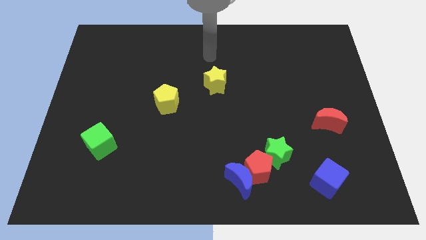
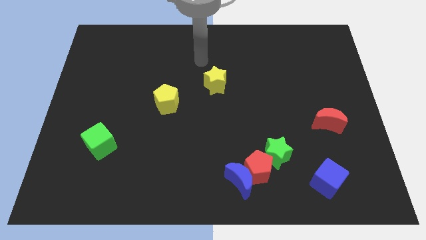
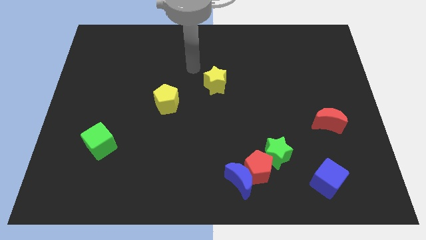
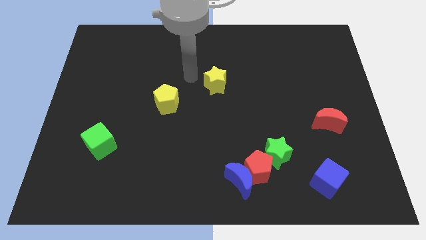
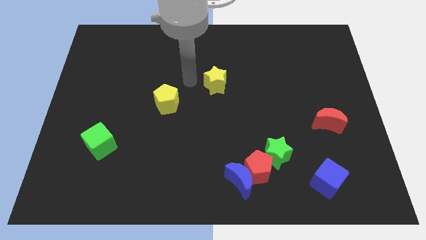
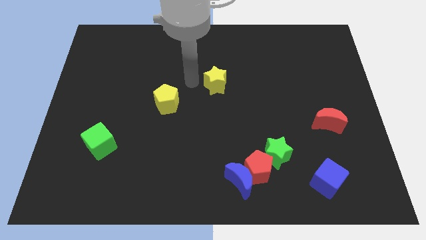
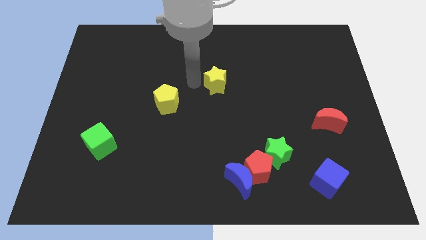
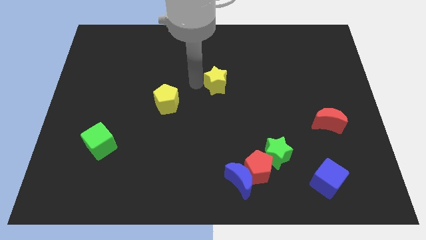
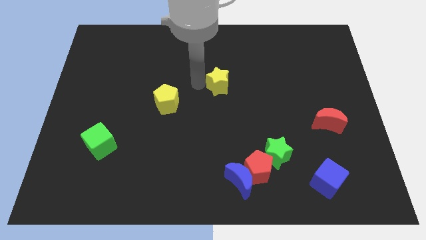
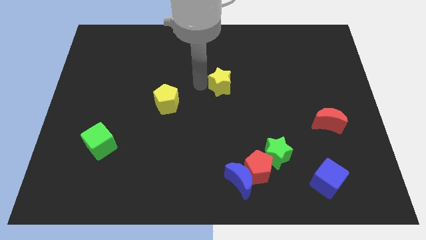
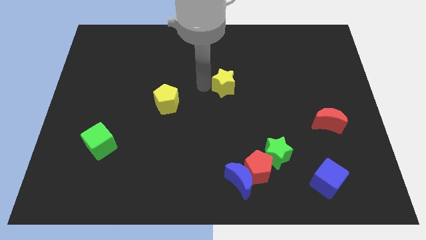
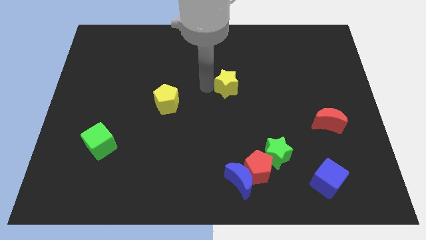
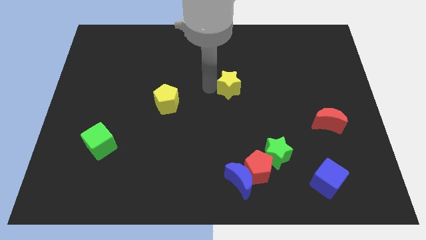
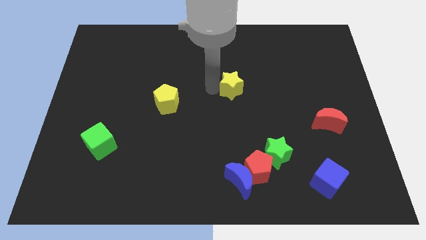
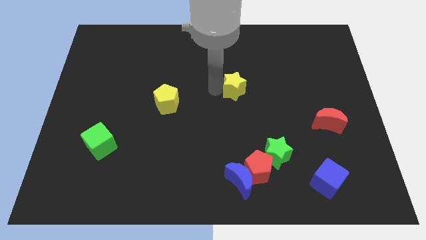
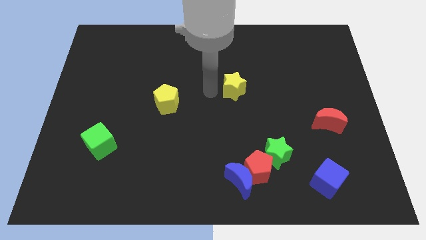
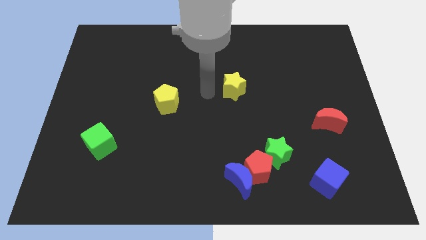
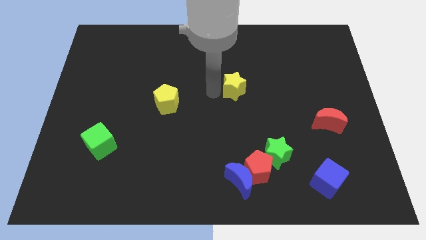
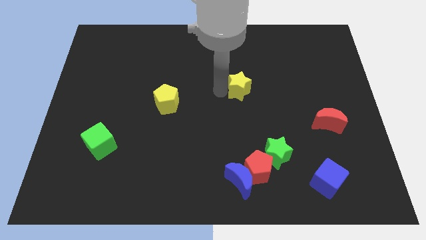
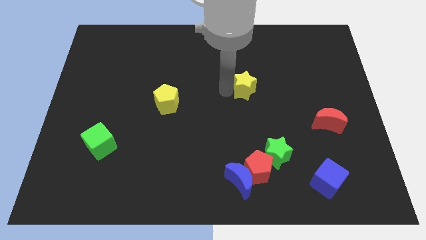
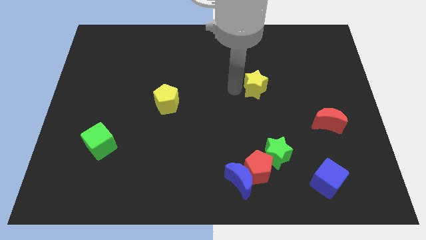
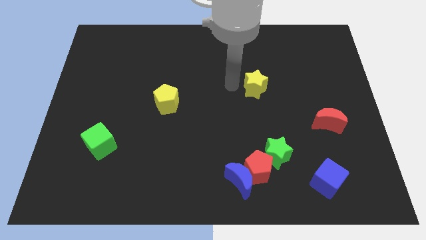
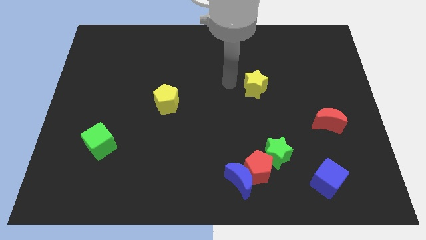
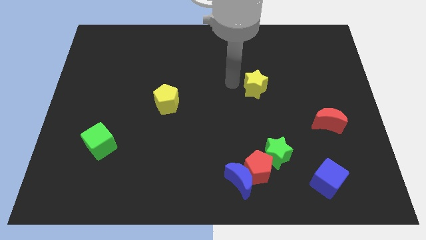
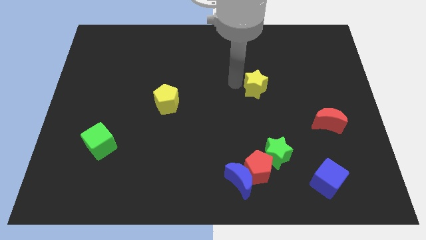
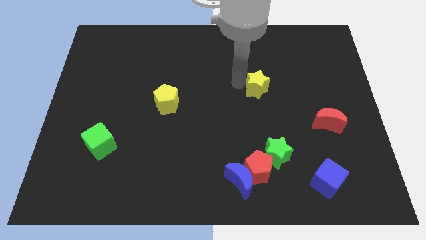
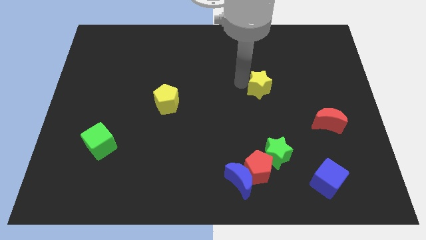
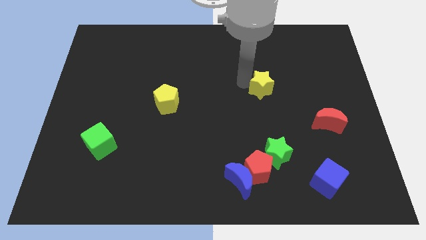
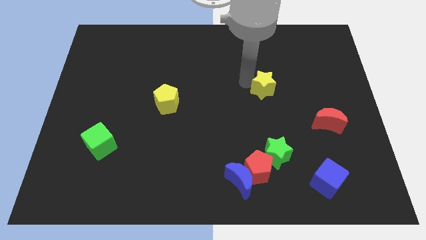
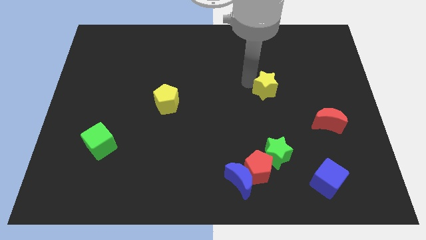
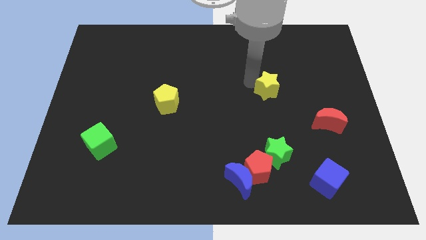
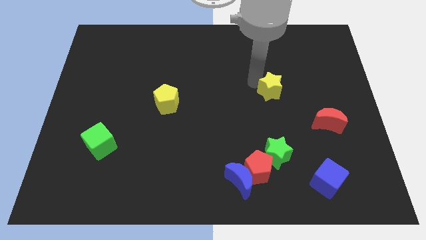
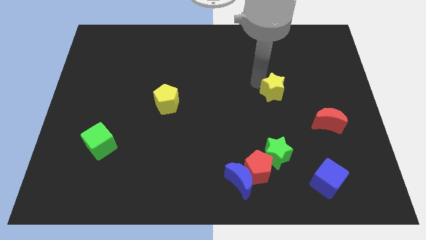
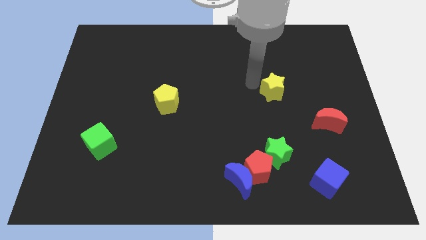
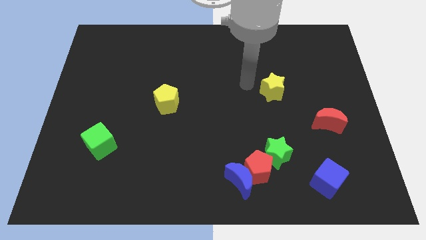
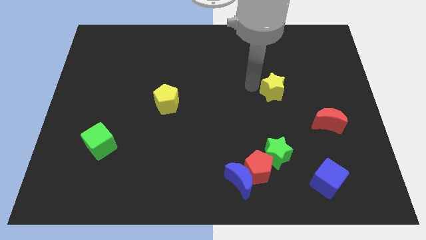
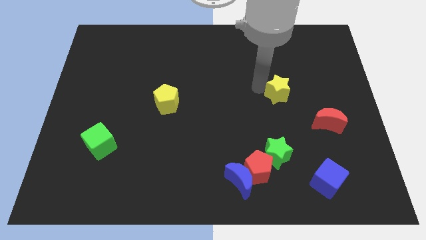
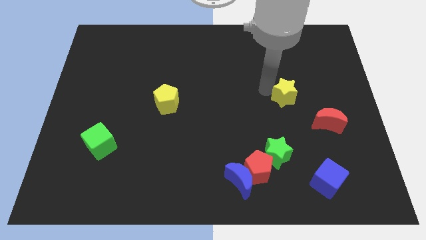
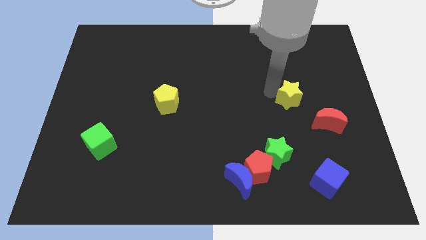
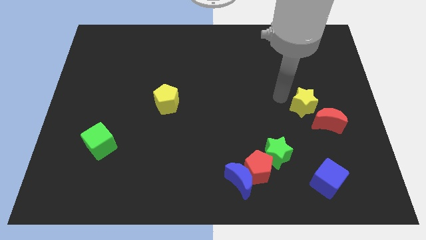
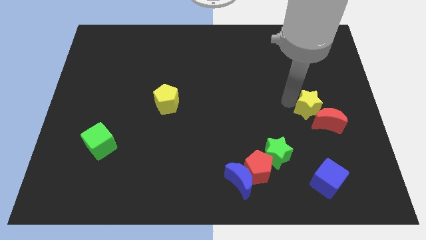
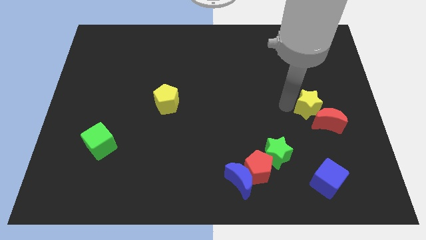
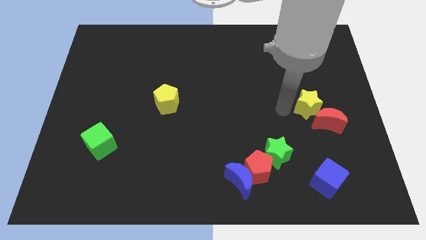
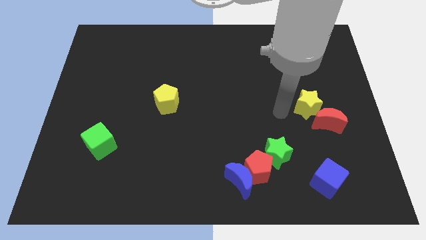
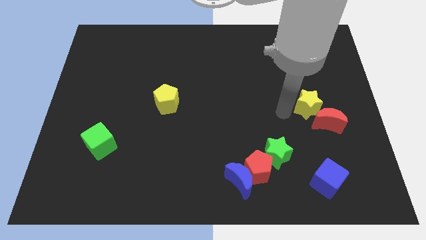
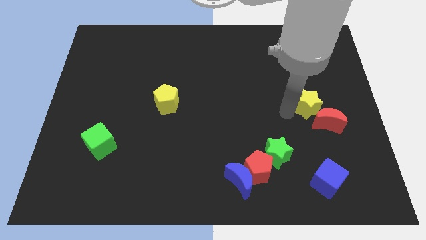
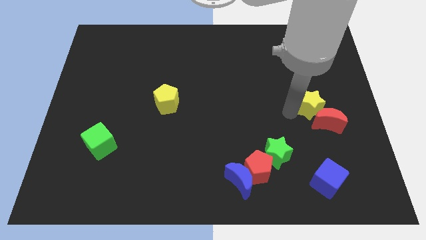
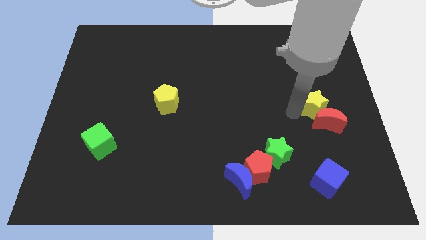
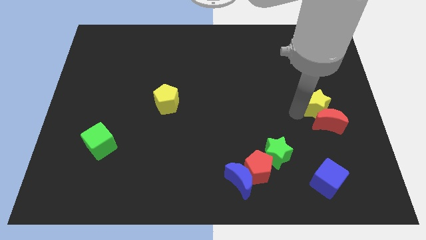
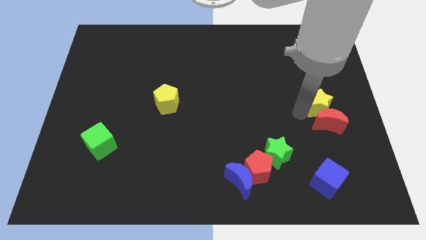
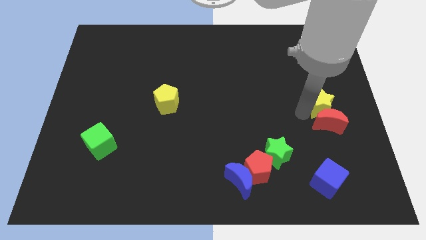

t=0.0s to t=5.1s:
slide the yellow star to the center right

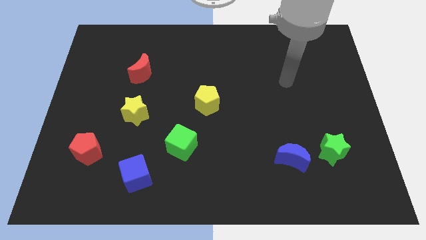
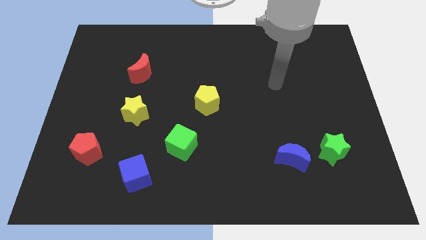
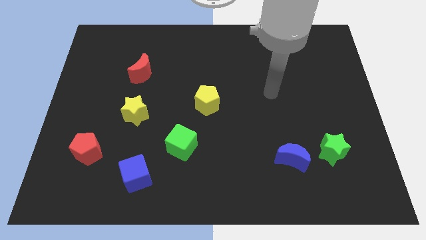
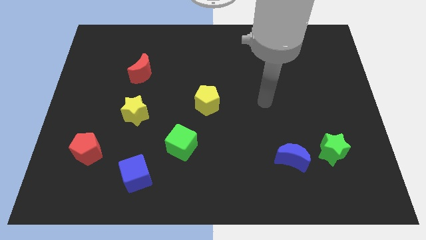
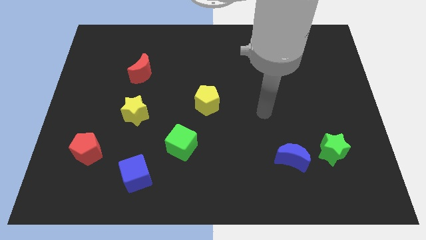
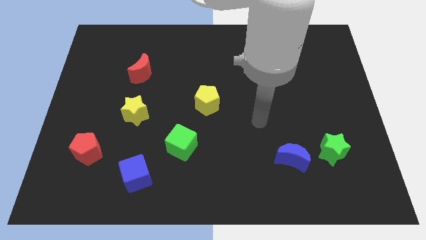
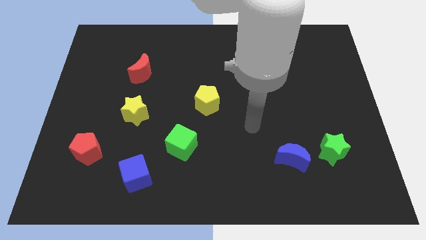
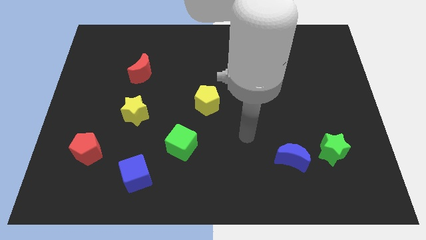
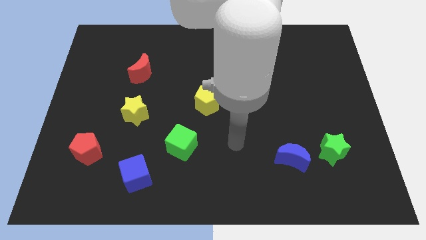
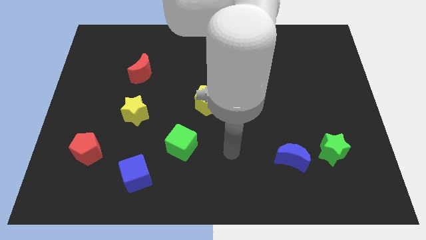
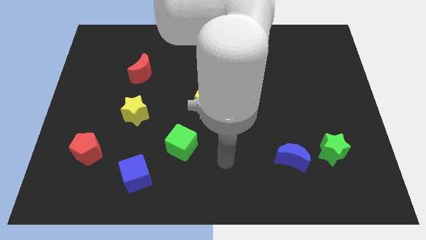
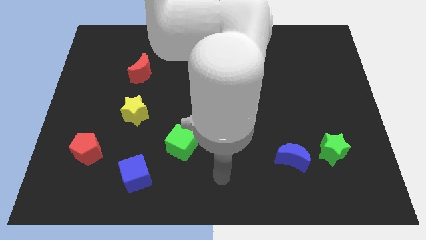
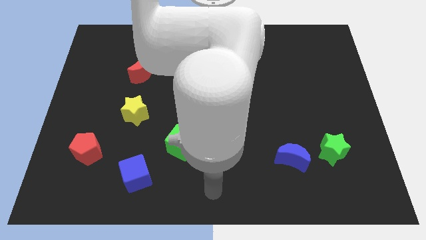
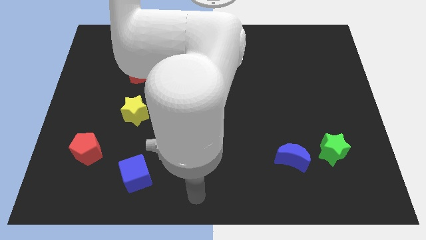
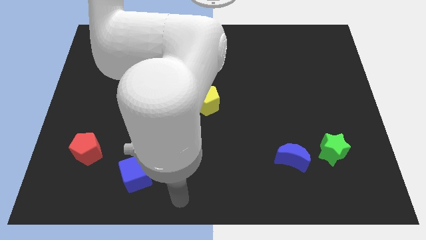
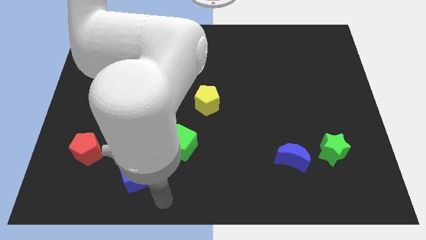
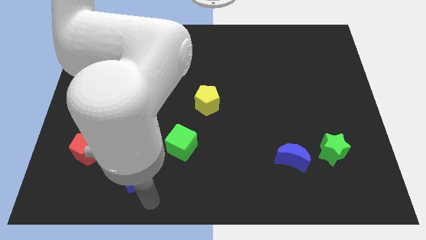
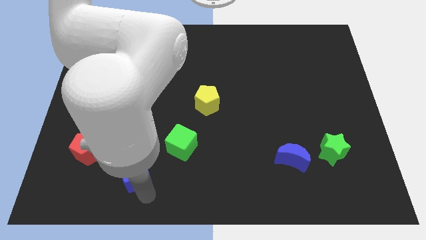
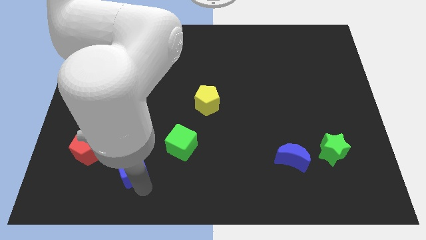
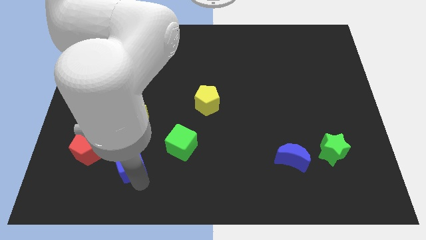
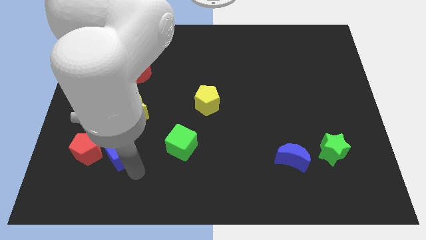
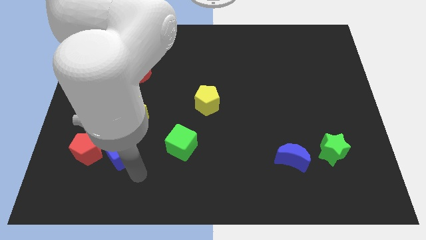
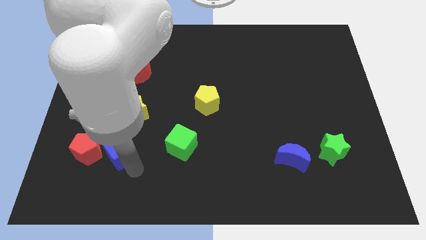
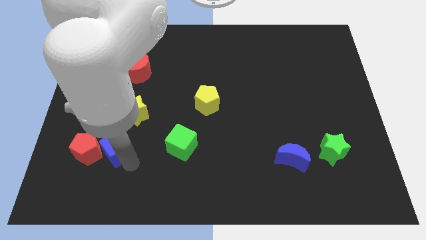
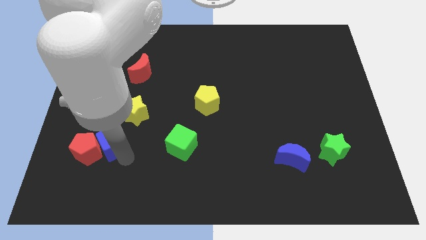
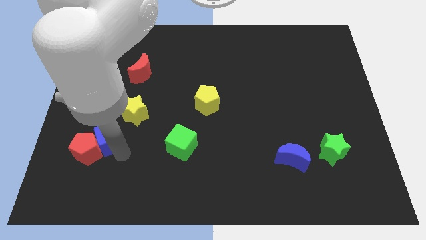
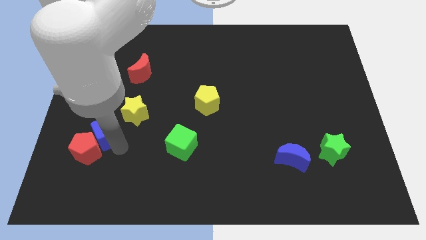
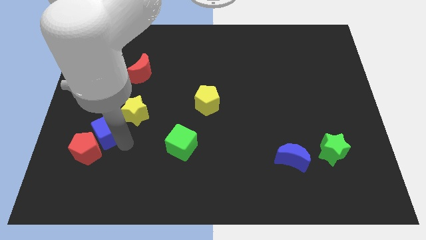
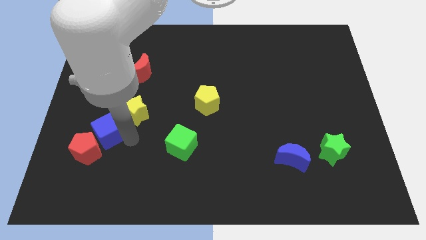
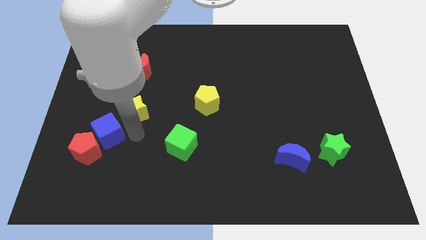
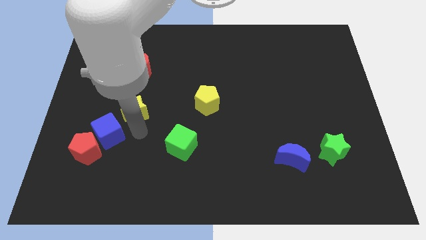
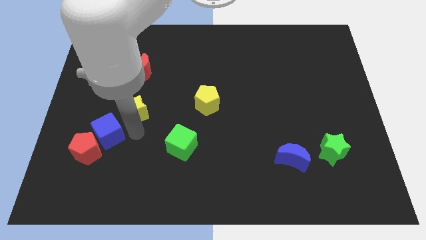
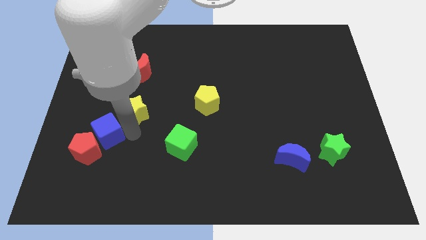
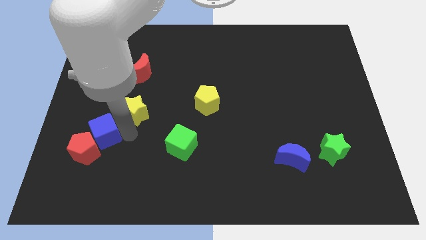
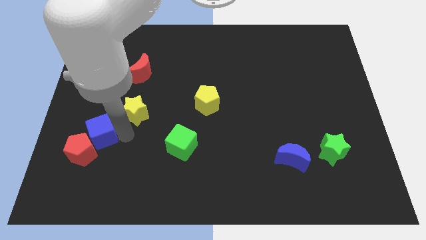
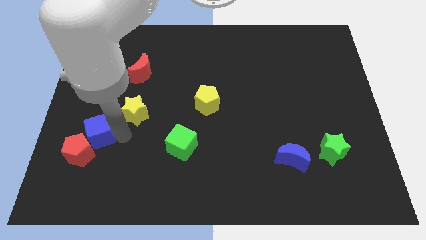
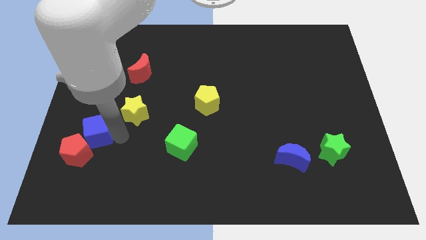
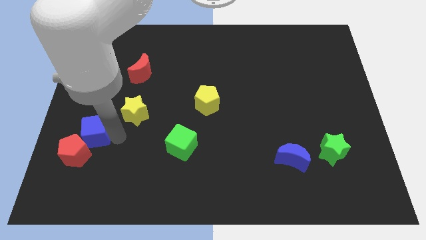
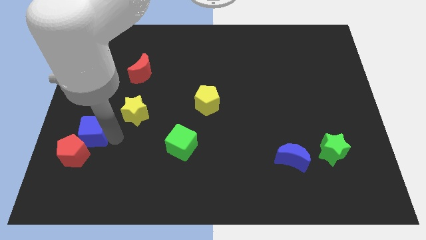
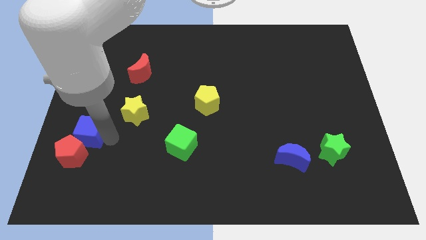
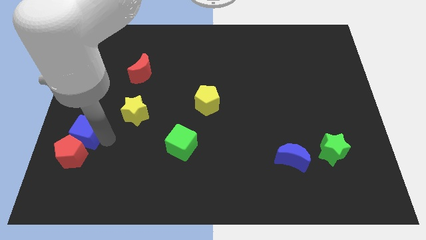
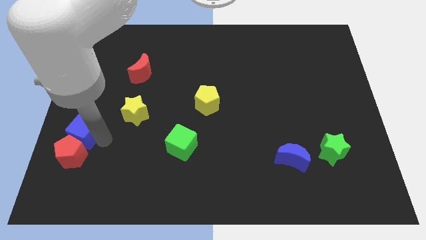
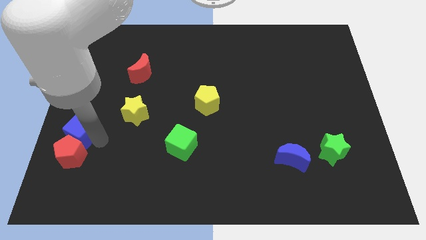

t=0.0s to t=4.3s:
move the blue cube to the left side
